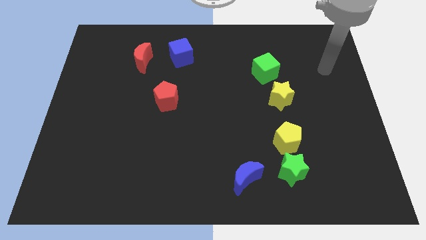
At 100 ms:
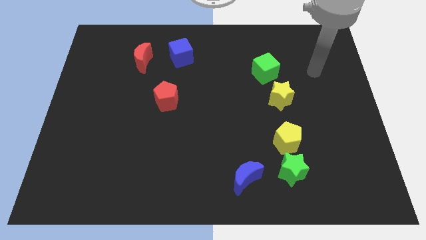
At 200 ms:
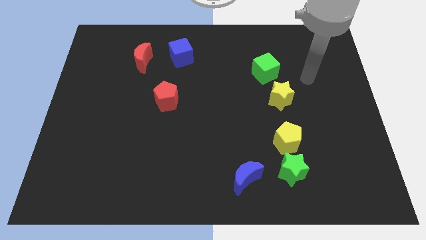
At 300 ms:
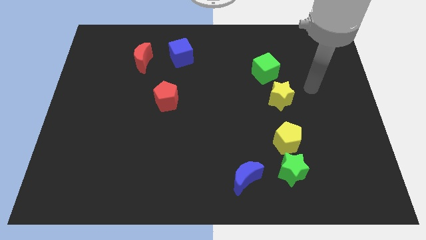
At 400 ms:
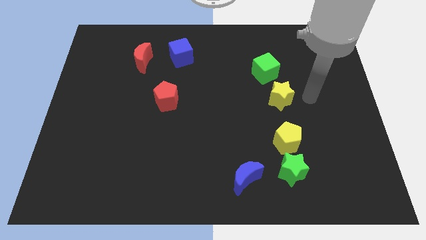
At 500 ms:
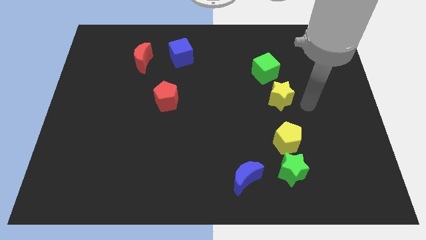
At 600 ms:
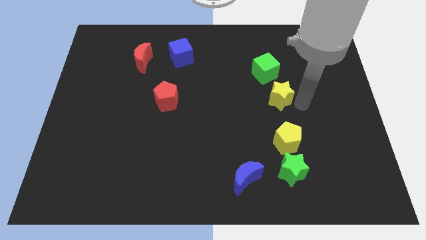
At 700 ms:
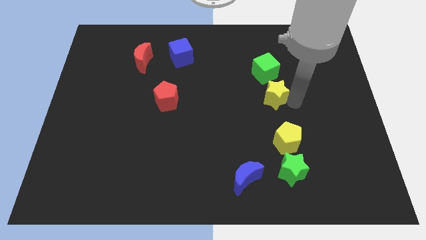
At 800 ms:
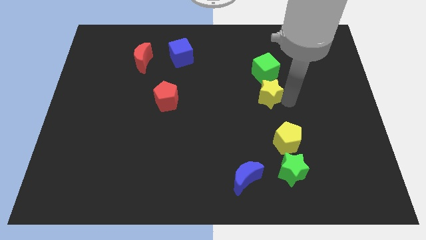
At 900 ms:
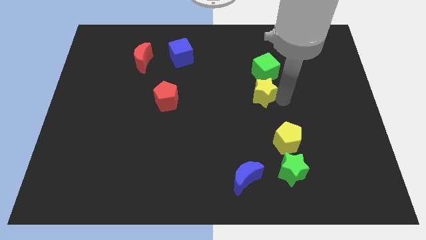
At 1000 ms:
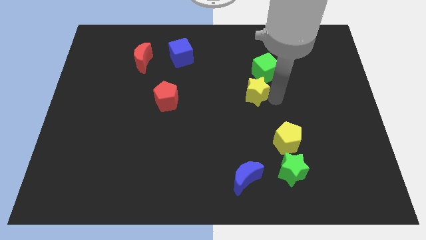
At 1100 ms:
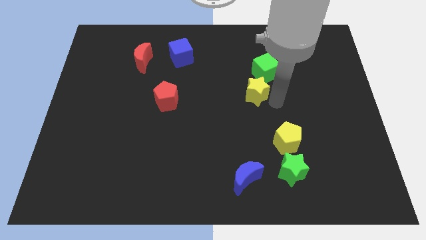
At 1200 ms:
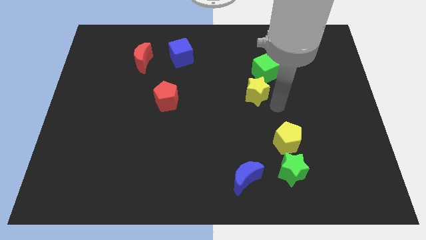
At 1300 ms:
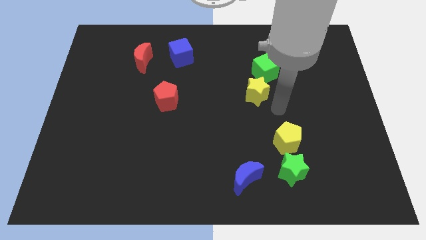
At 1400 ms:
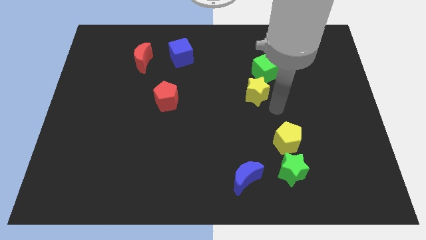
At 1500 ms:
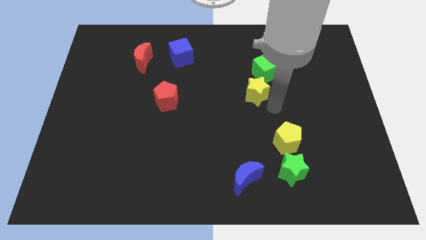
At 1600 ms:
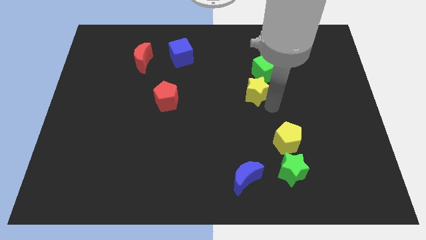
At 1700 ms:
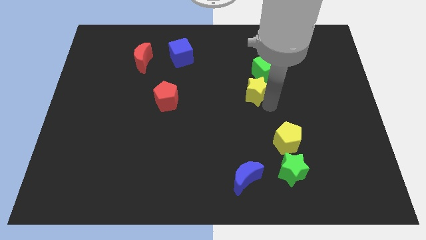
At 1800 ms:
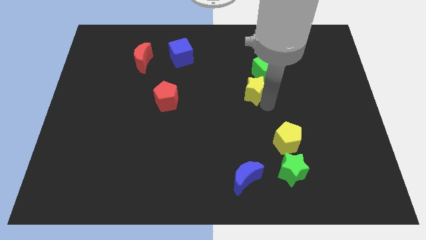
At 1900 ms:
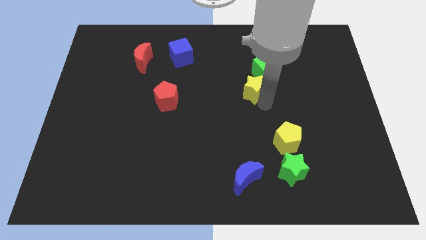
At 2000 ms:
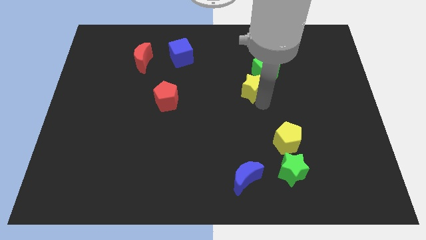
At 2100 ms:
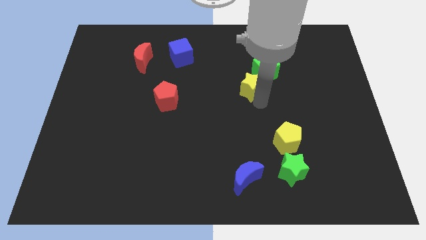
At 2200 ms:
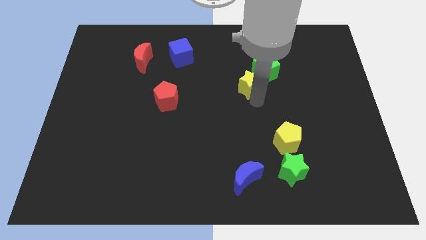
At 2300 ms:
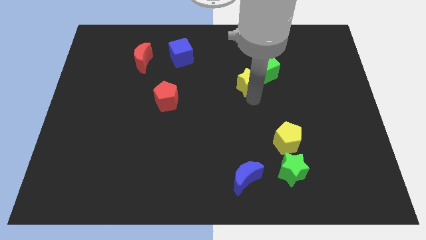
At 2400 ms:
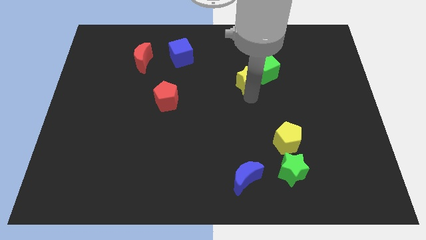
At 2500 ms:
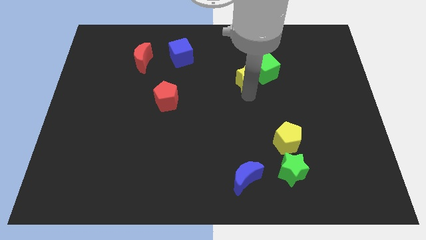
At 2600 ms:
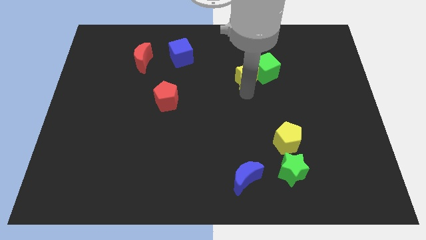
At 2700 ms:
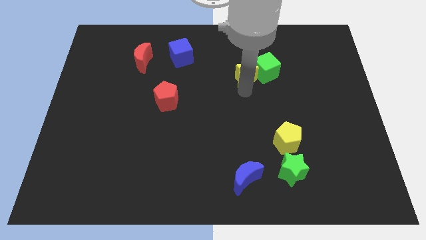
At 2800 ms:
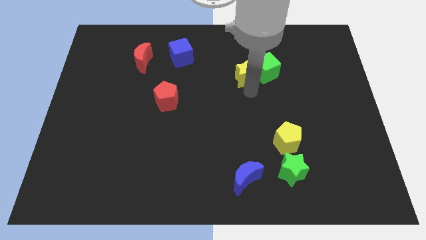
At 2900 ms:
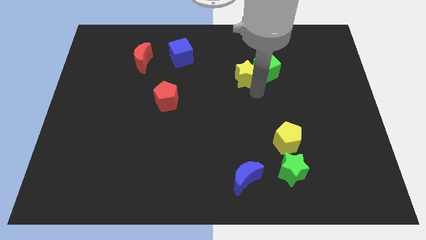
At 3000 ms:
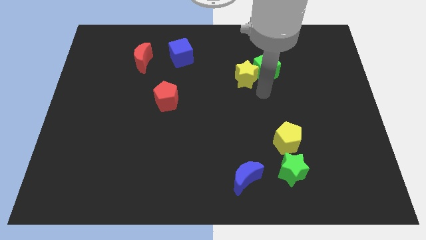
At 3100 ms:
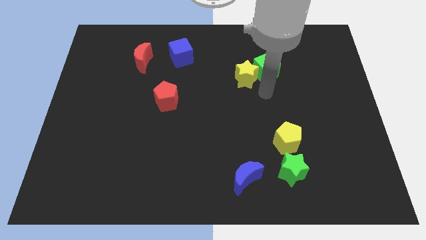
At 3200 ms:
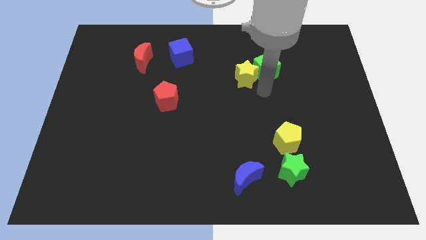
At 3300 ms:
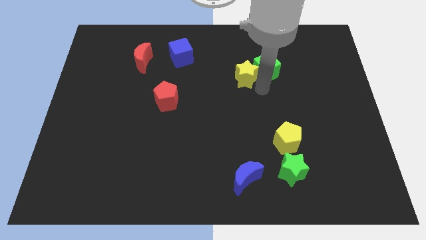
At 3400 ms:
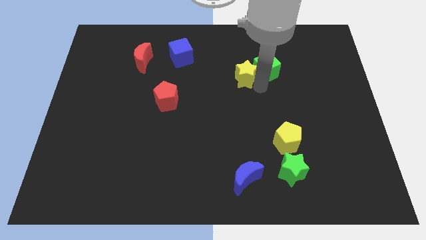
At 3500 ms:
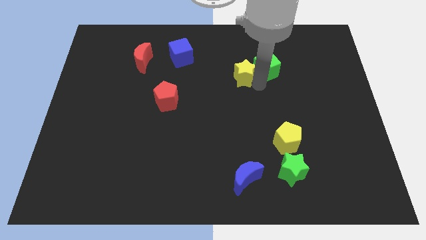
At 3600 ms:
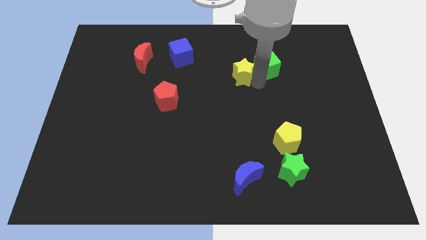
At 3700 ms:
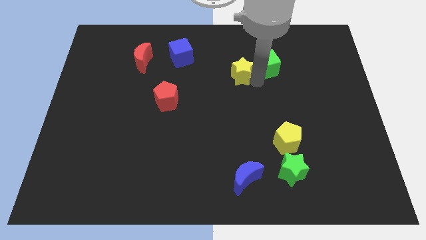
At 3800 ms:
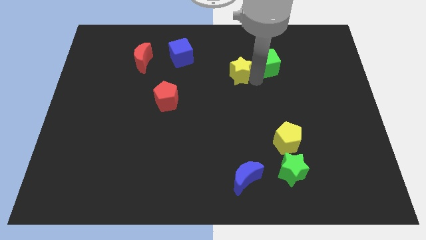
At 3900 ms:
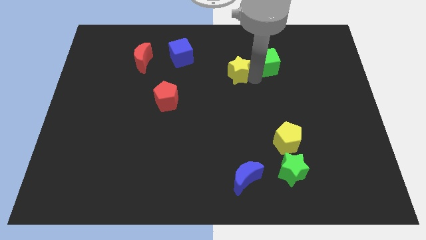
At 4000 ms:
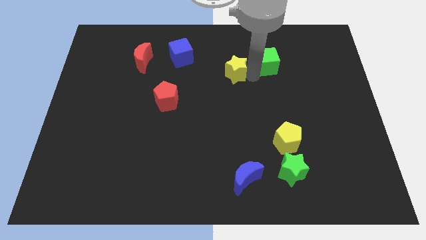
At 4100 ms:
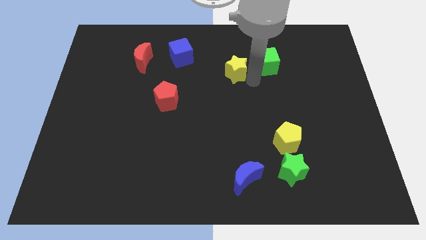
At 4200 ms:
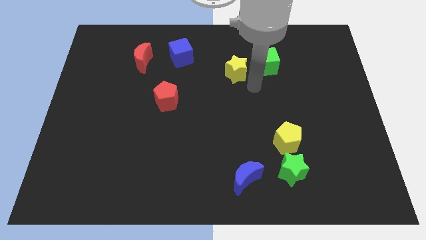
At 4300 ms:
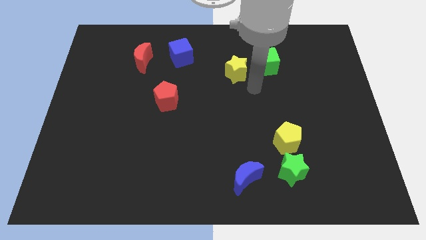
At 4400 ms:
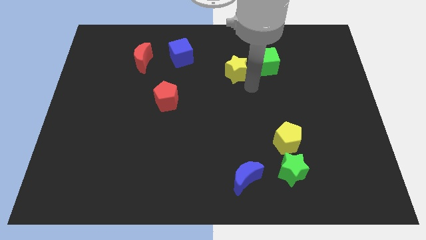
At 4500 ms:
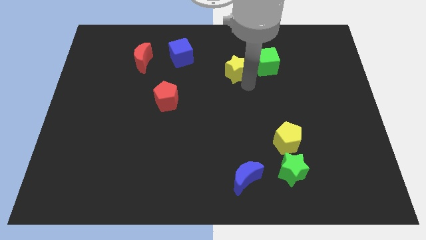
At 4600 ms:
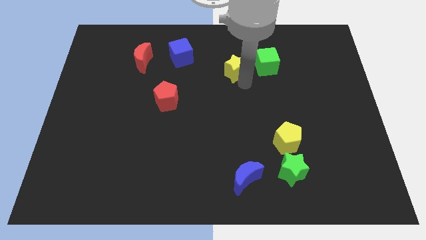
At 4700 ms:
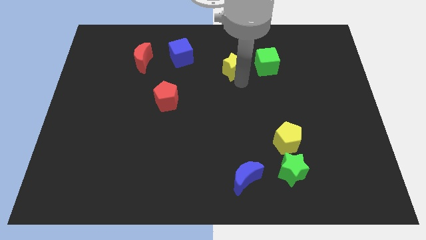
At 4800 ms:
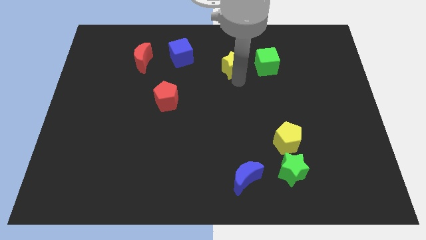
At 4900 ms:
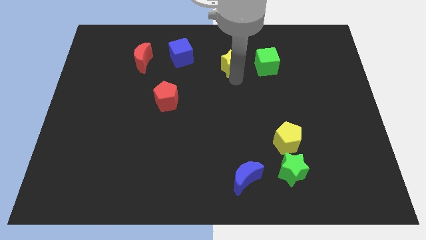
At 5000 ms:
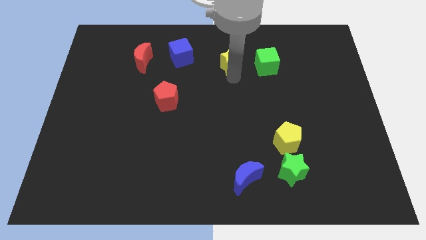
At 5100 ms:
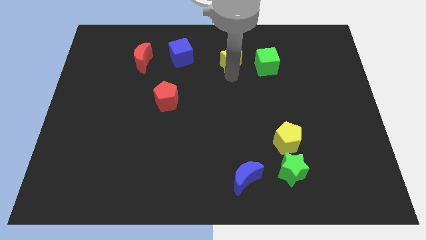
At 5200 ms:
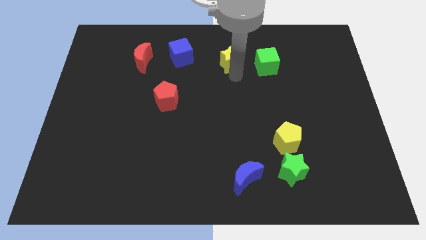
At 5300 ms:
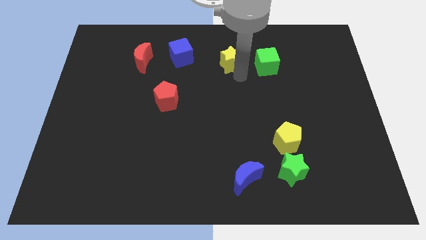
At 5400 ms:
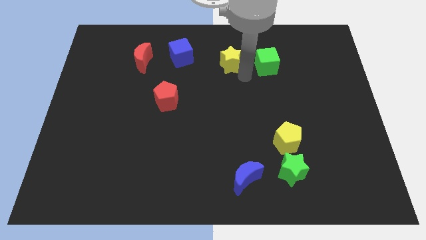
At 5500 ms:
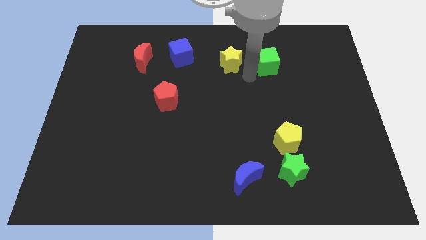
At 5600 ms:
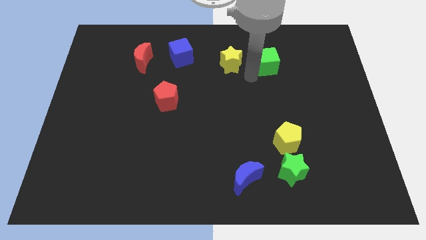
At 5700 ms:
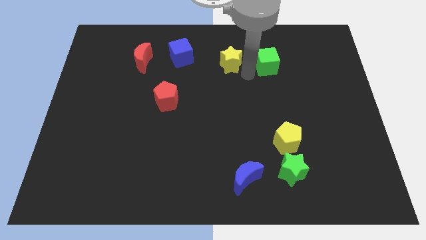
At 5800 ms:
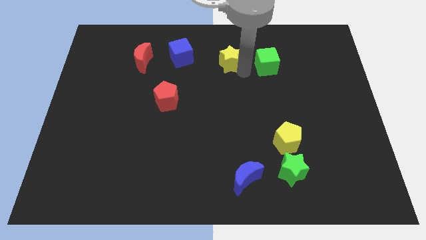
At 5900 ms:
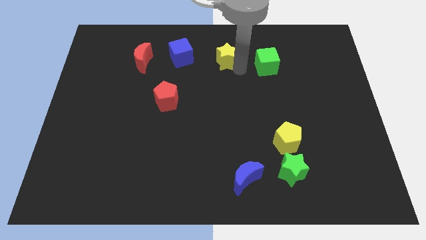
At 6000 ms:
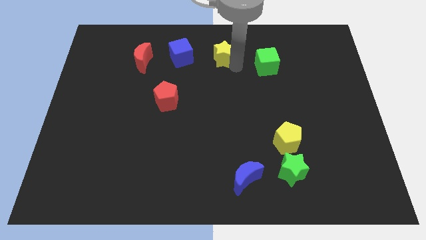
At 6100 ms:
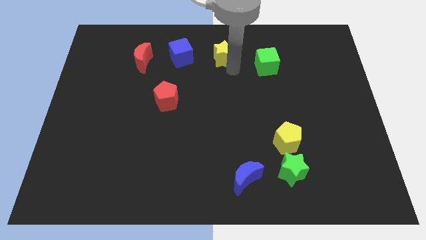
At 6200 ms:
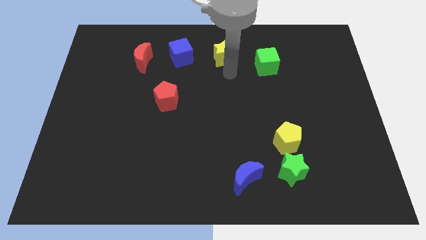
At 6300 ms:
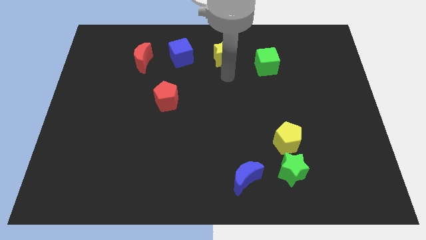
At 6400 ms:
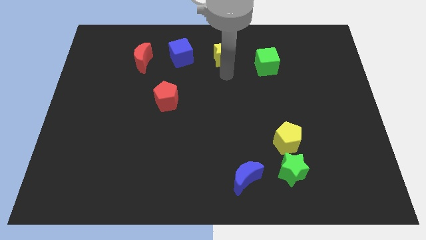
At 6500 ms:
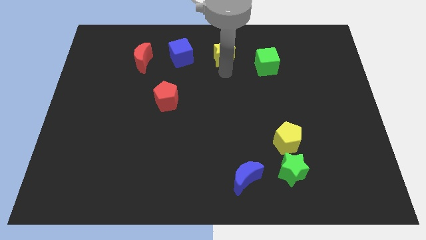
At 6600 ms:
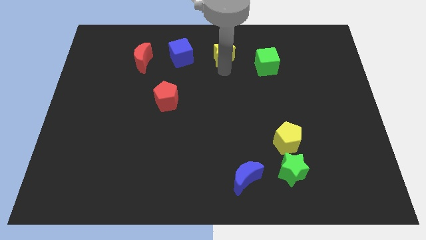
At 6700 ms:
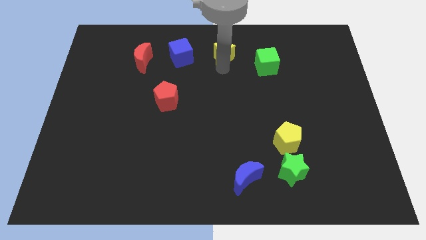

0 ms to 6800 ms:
put the yellow star to the top side

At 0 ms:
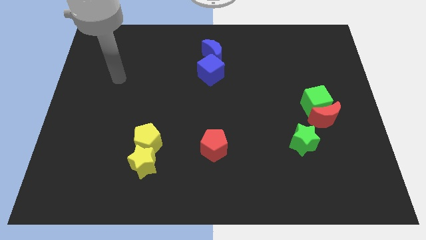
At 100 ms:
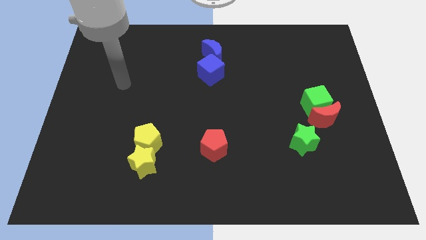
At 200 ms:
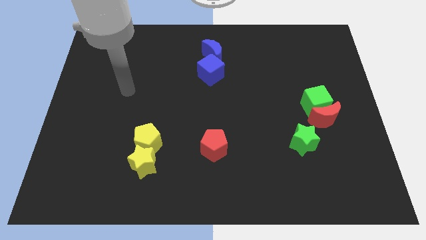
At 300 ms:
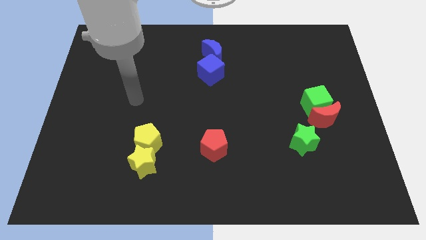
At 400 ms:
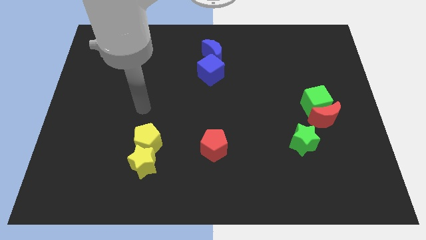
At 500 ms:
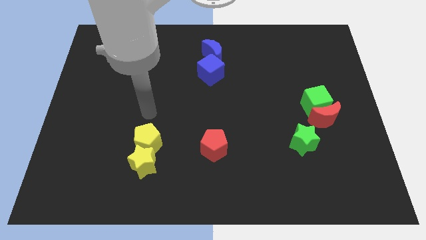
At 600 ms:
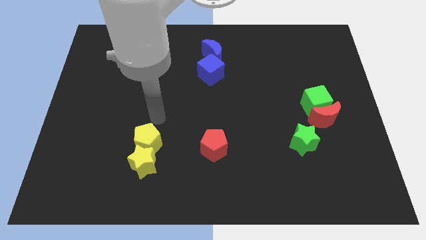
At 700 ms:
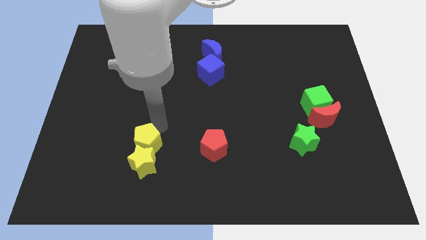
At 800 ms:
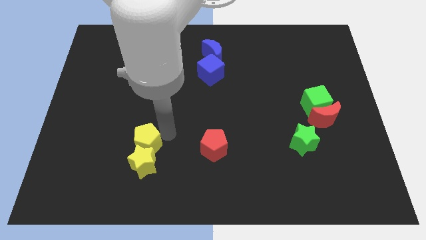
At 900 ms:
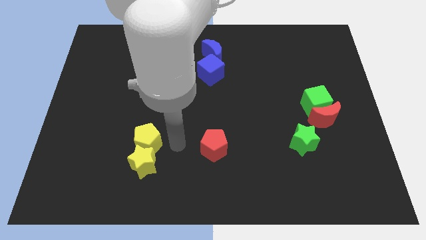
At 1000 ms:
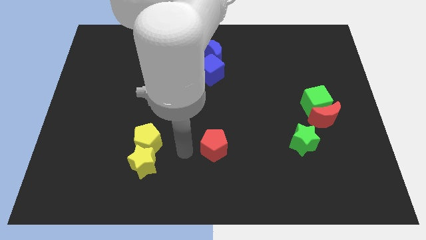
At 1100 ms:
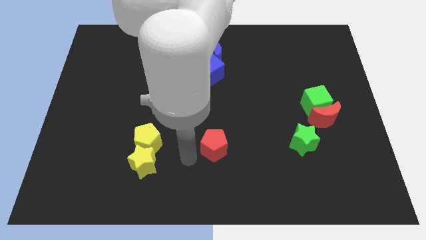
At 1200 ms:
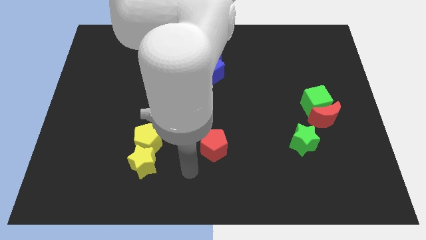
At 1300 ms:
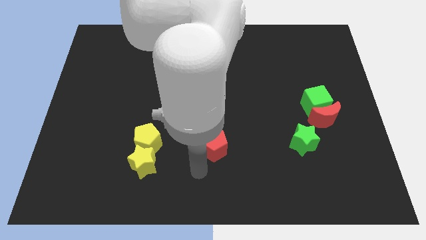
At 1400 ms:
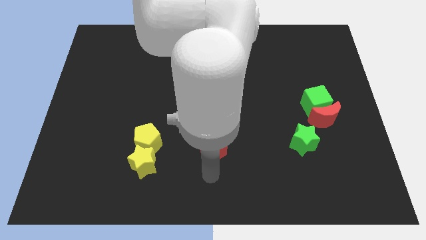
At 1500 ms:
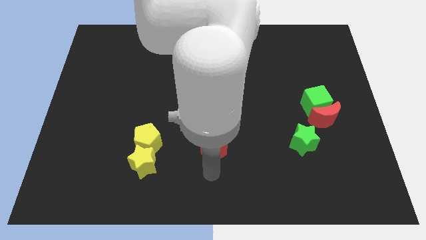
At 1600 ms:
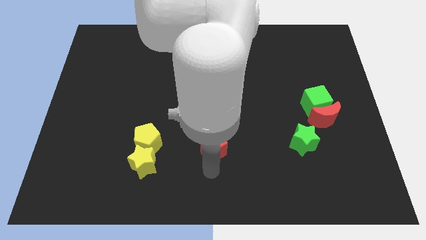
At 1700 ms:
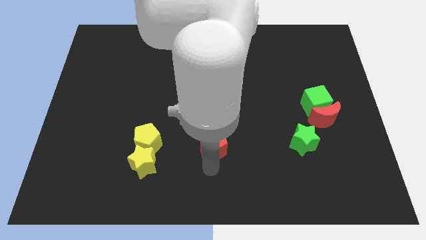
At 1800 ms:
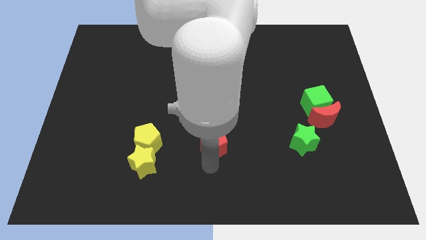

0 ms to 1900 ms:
put the red pentagon to the middle of the board
